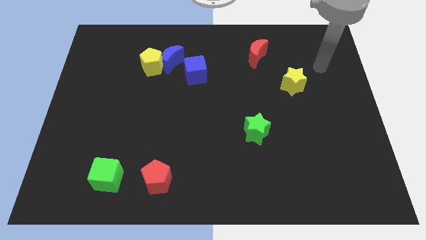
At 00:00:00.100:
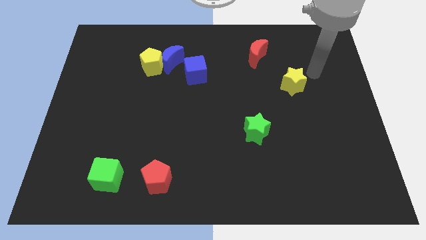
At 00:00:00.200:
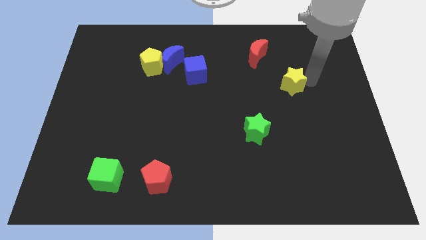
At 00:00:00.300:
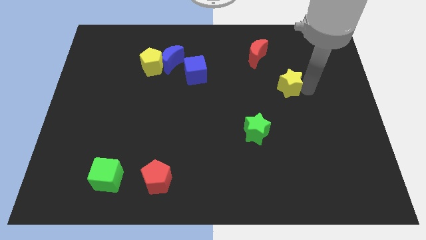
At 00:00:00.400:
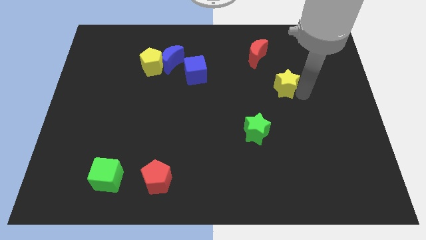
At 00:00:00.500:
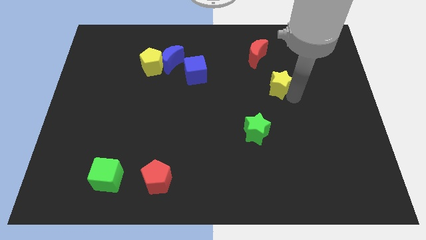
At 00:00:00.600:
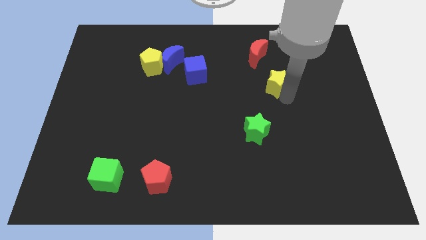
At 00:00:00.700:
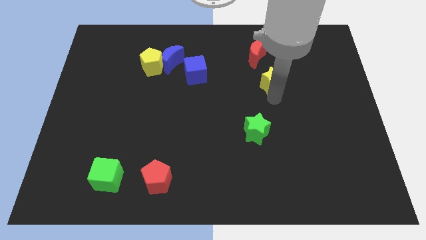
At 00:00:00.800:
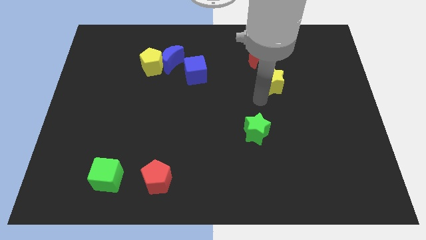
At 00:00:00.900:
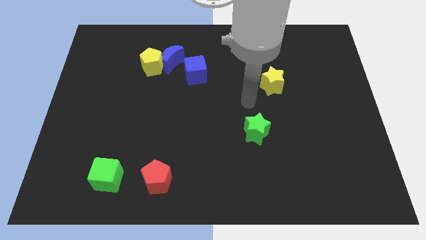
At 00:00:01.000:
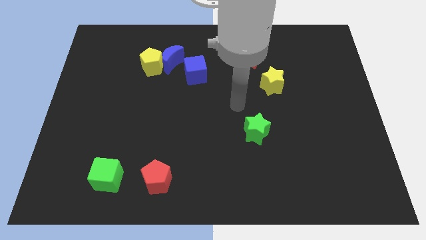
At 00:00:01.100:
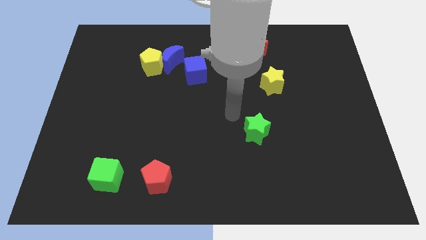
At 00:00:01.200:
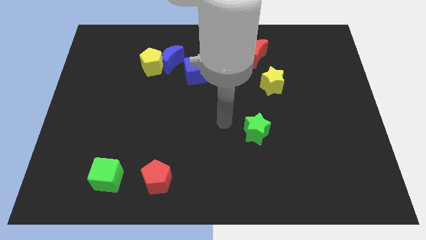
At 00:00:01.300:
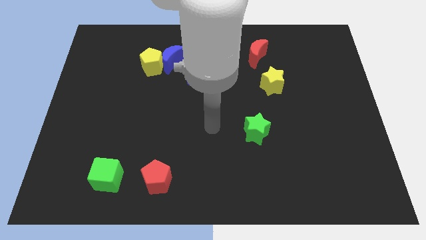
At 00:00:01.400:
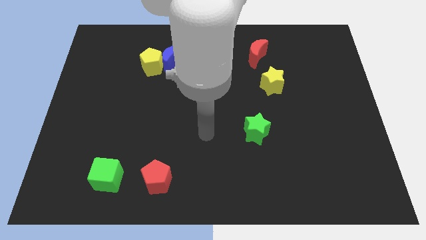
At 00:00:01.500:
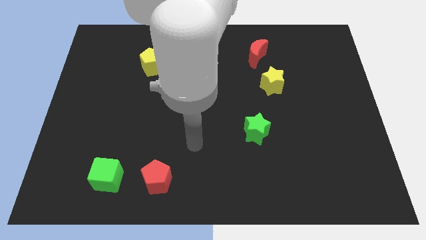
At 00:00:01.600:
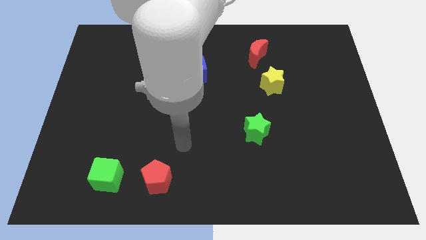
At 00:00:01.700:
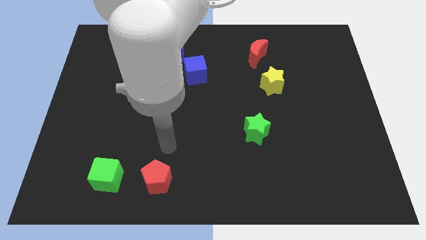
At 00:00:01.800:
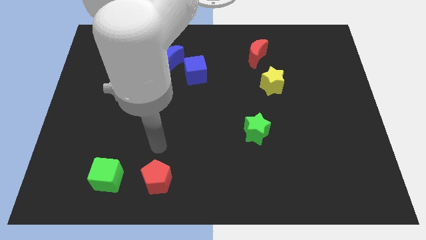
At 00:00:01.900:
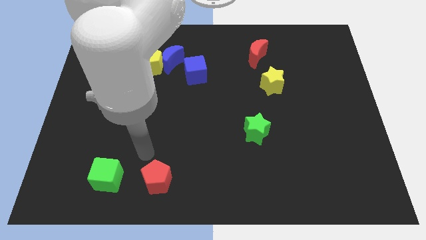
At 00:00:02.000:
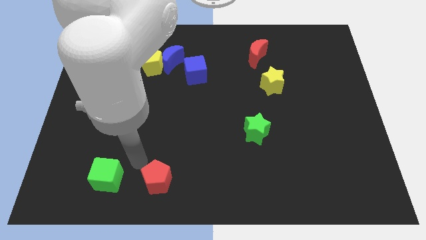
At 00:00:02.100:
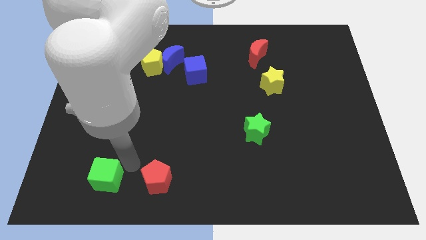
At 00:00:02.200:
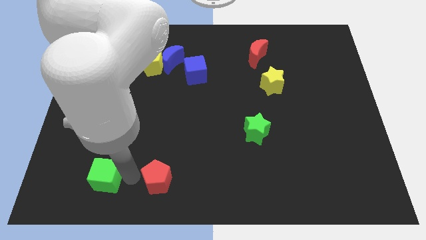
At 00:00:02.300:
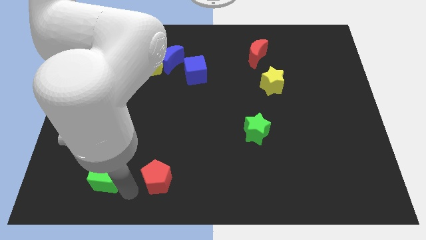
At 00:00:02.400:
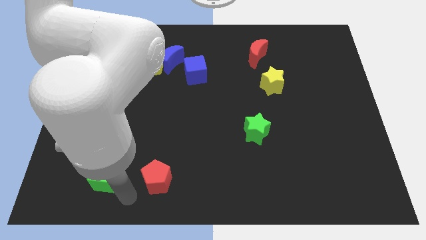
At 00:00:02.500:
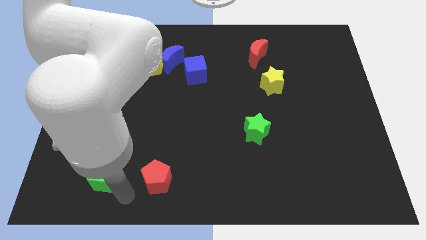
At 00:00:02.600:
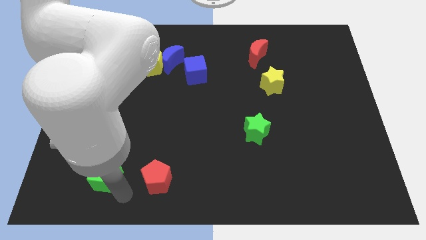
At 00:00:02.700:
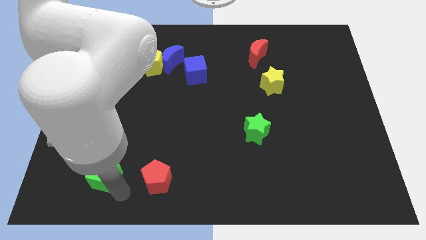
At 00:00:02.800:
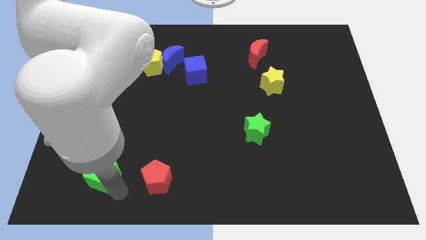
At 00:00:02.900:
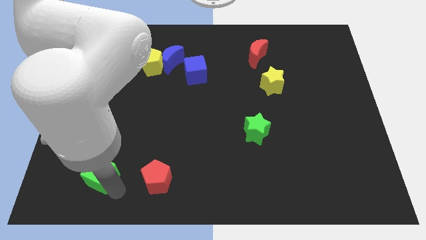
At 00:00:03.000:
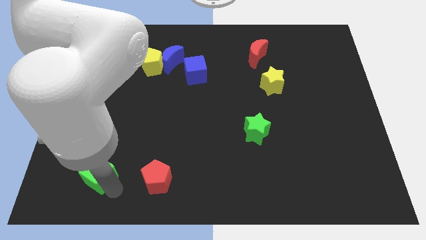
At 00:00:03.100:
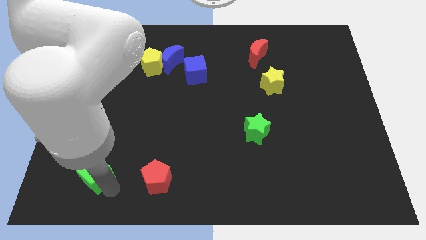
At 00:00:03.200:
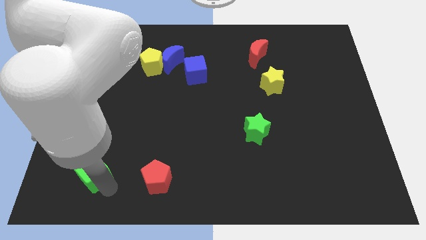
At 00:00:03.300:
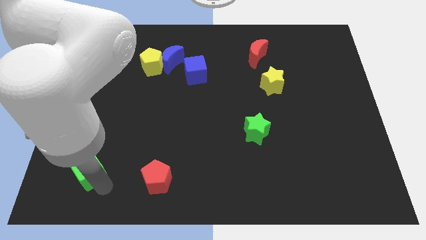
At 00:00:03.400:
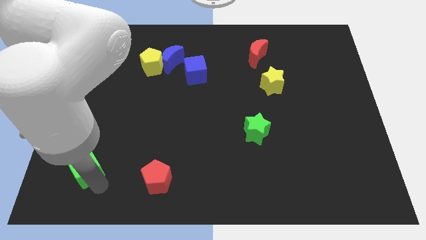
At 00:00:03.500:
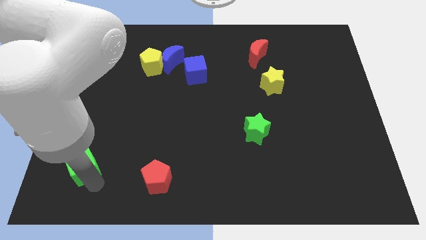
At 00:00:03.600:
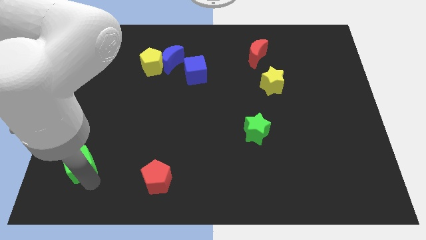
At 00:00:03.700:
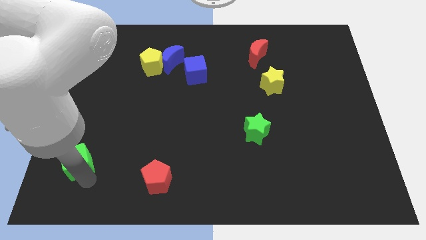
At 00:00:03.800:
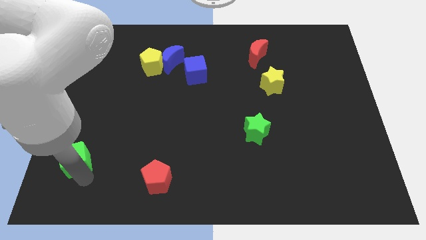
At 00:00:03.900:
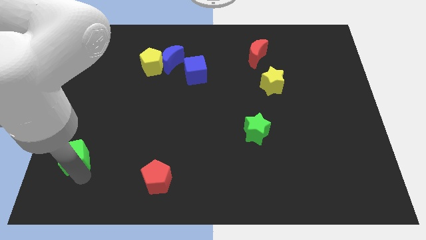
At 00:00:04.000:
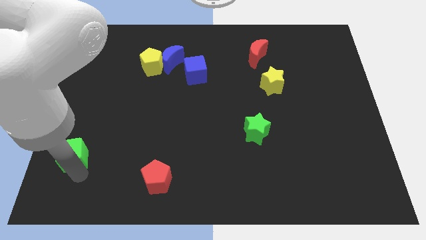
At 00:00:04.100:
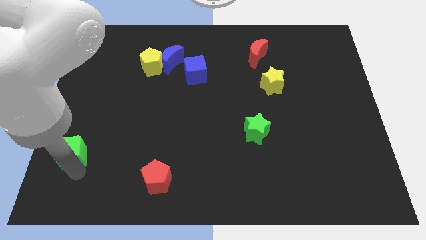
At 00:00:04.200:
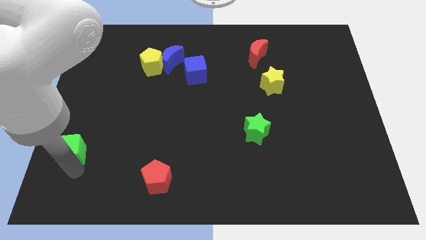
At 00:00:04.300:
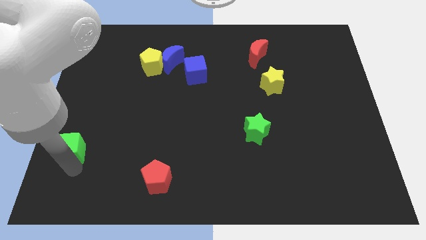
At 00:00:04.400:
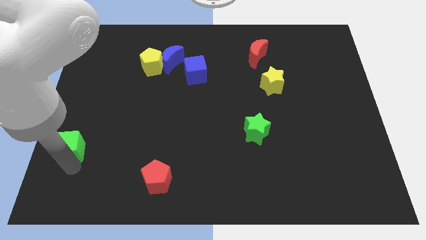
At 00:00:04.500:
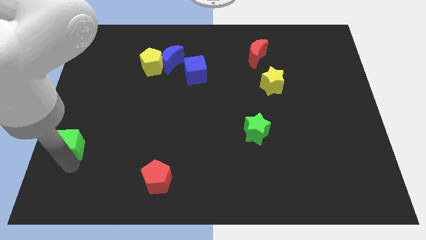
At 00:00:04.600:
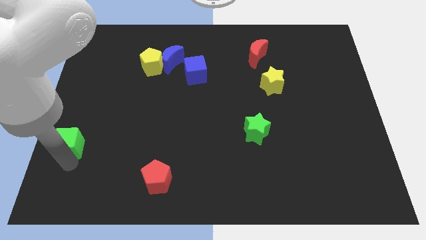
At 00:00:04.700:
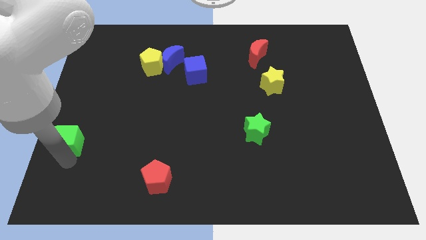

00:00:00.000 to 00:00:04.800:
put the green cube to the left side

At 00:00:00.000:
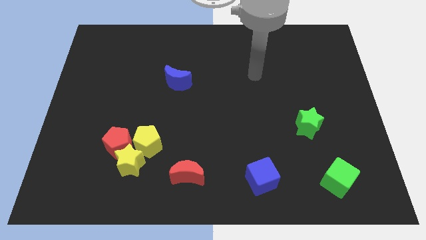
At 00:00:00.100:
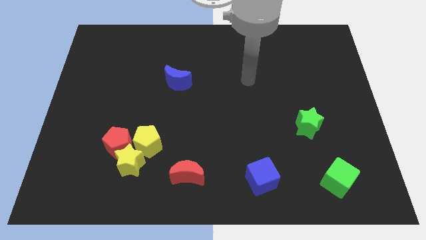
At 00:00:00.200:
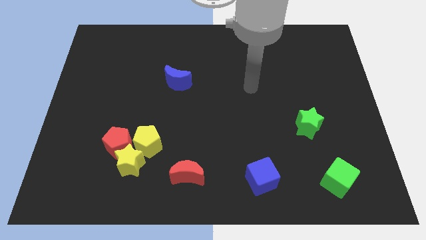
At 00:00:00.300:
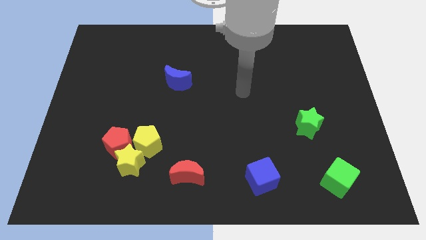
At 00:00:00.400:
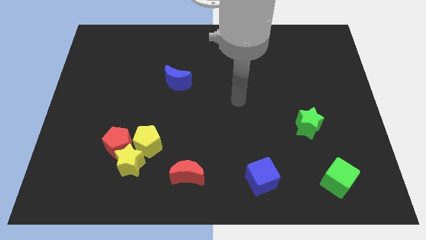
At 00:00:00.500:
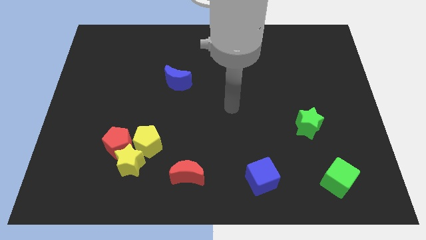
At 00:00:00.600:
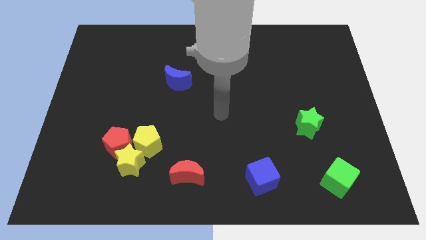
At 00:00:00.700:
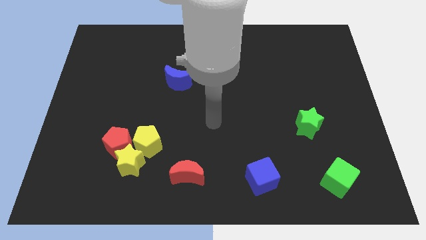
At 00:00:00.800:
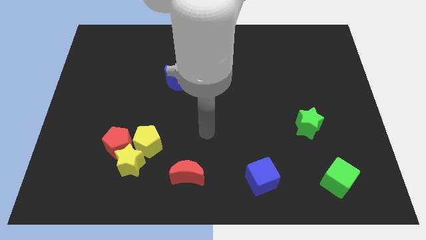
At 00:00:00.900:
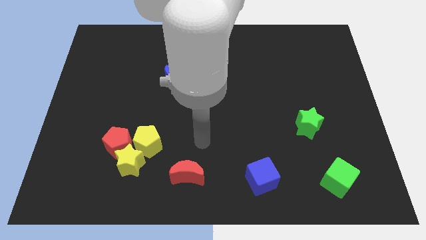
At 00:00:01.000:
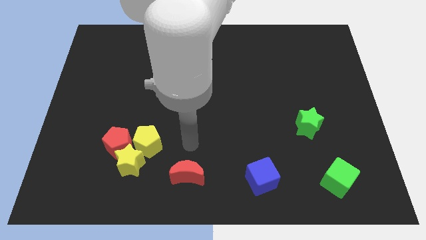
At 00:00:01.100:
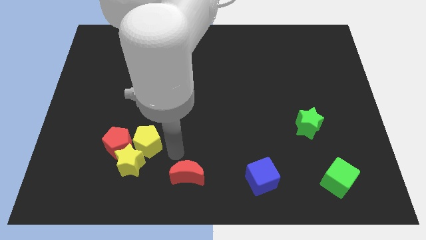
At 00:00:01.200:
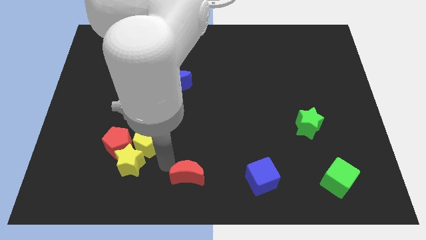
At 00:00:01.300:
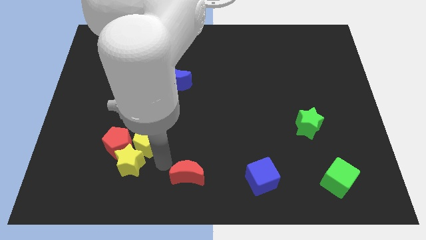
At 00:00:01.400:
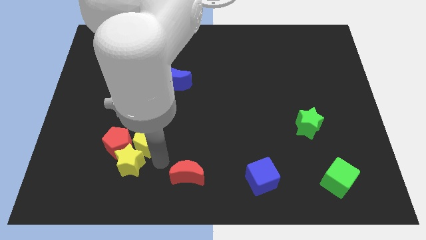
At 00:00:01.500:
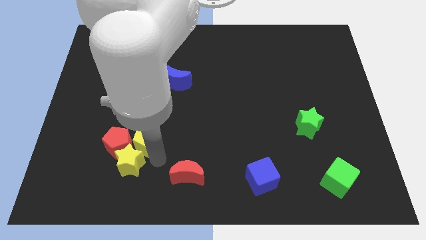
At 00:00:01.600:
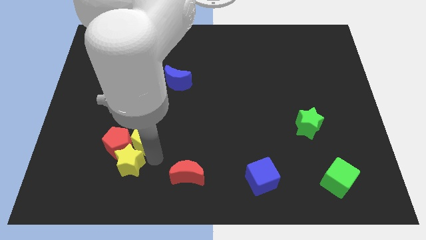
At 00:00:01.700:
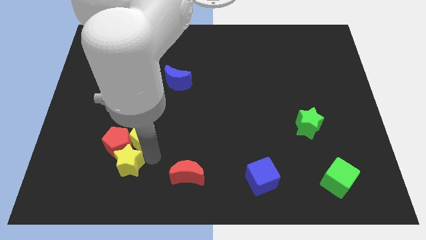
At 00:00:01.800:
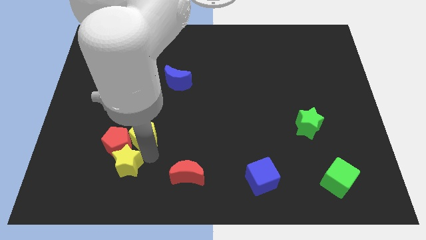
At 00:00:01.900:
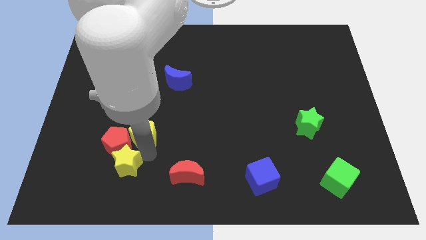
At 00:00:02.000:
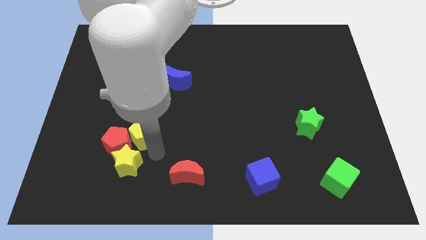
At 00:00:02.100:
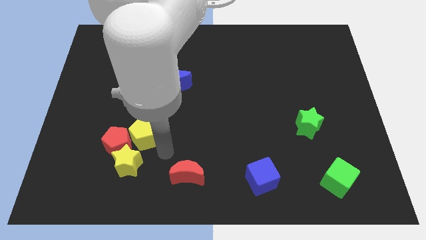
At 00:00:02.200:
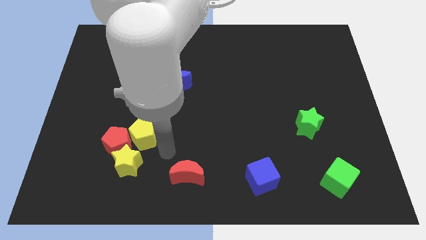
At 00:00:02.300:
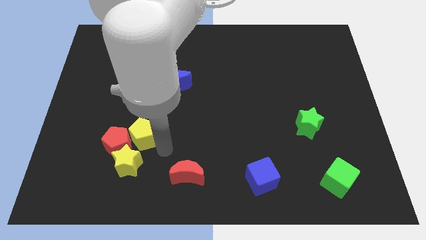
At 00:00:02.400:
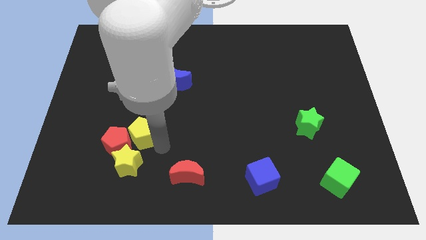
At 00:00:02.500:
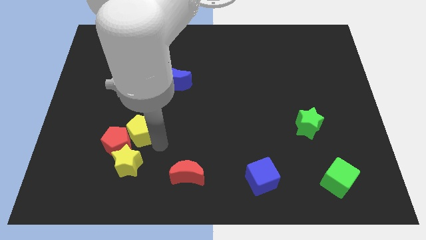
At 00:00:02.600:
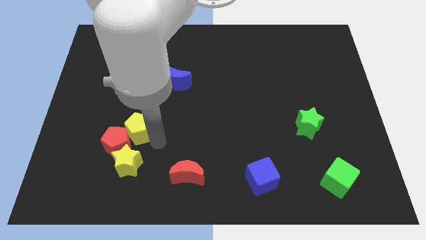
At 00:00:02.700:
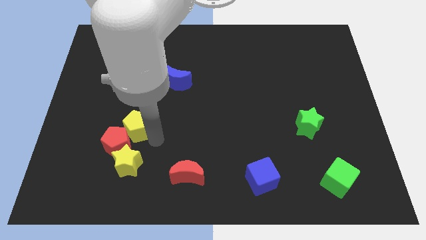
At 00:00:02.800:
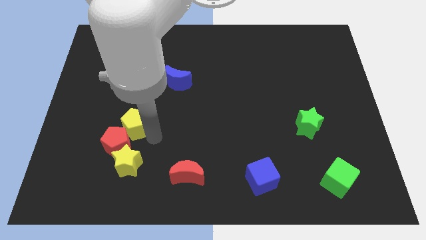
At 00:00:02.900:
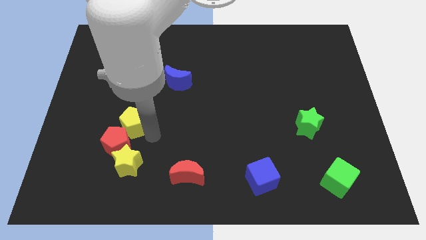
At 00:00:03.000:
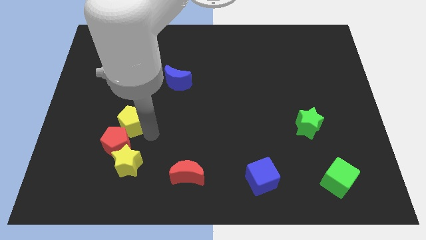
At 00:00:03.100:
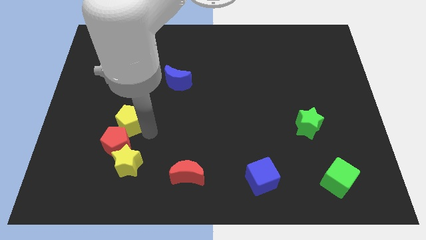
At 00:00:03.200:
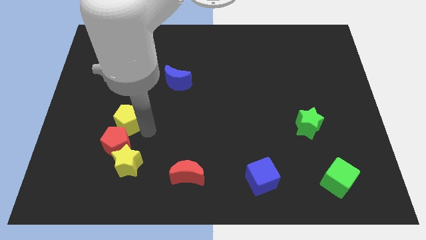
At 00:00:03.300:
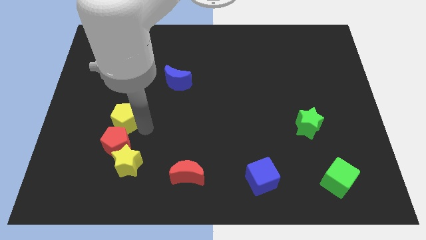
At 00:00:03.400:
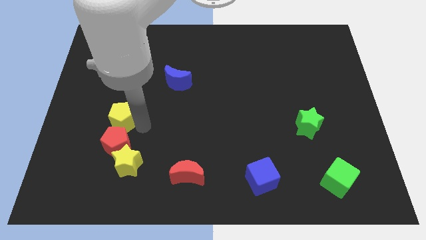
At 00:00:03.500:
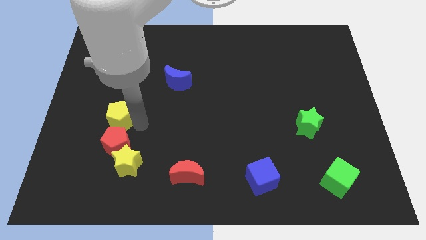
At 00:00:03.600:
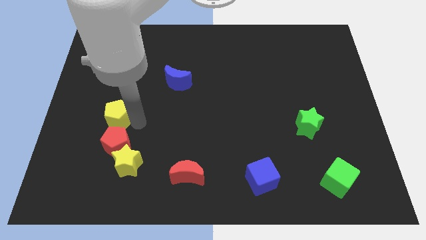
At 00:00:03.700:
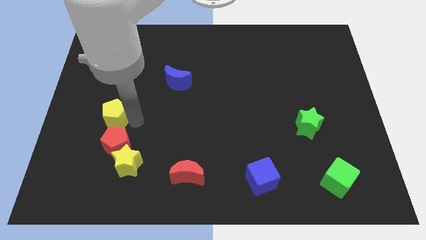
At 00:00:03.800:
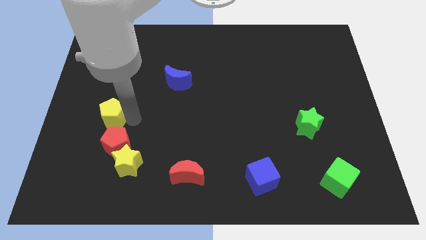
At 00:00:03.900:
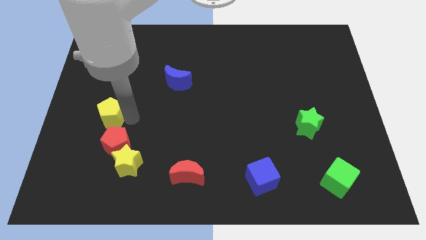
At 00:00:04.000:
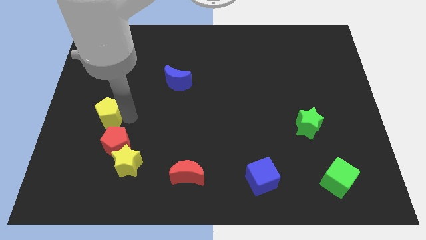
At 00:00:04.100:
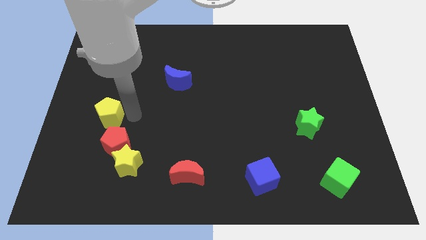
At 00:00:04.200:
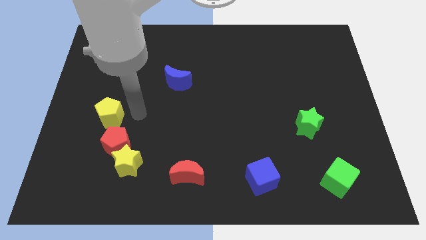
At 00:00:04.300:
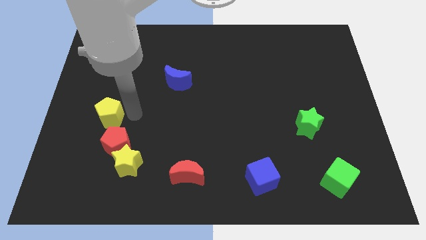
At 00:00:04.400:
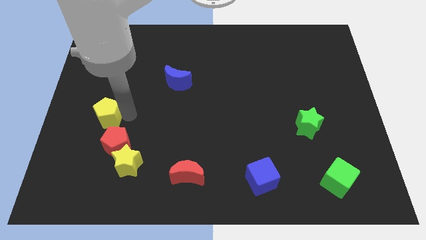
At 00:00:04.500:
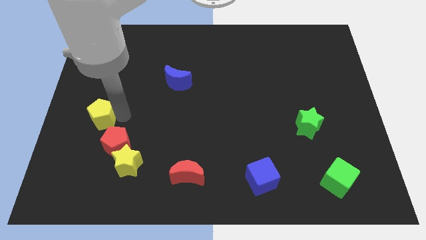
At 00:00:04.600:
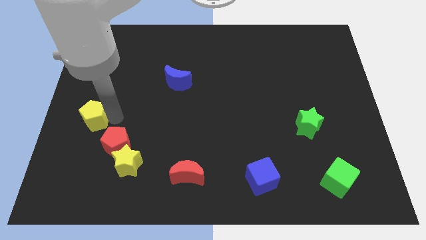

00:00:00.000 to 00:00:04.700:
slide the yellow pentagon to the left side
